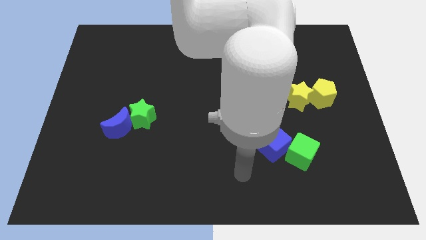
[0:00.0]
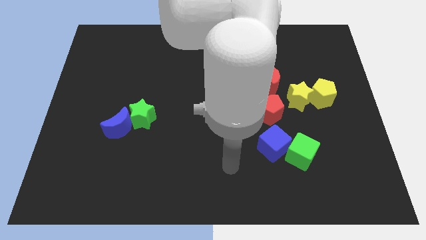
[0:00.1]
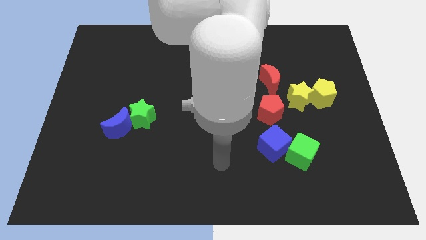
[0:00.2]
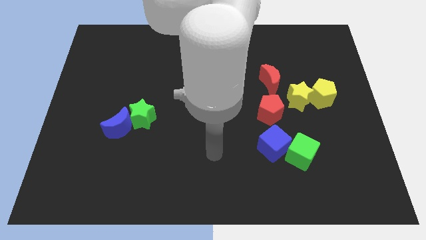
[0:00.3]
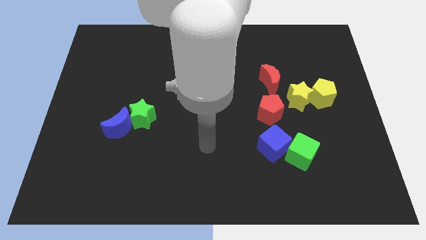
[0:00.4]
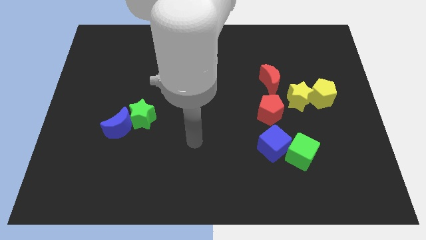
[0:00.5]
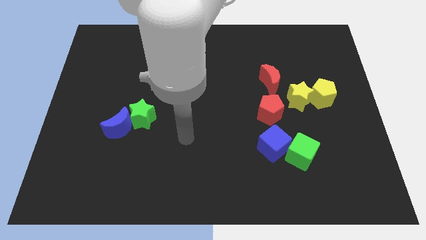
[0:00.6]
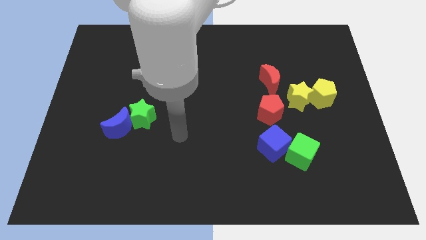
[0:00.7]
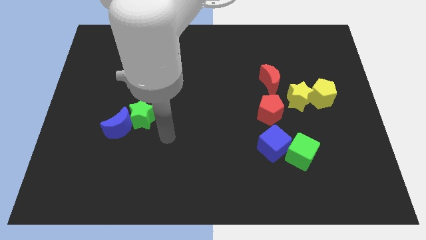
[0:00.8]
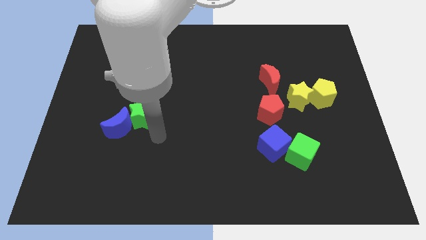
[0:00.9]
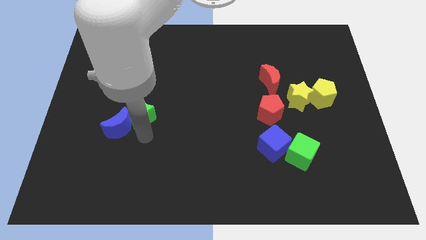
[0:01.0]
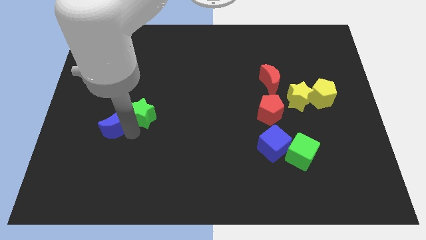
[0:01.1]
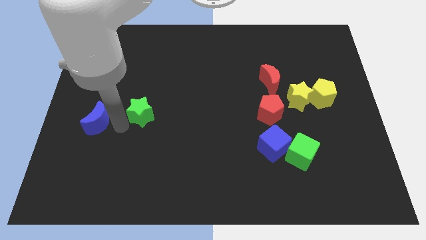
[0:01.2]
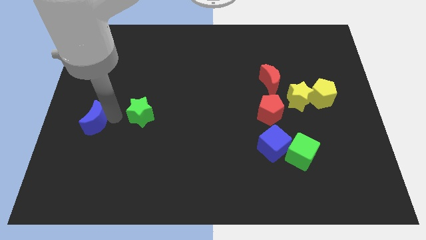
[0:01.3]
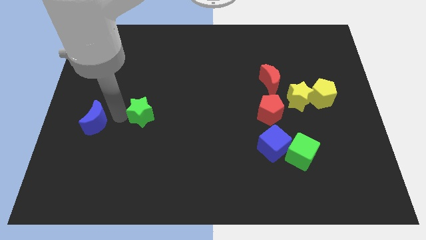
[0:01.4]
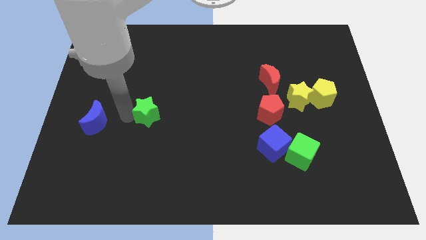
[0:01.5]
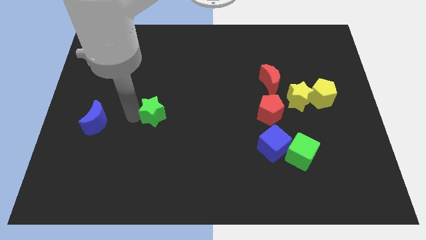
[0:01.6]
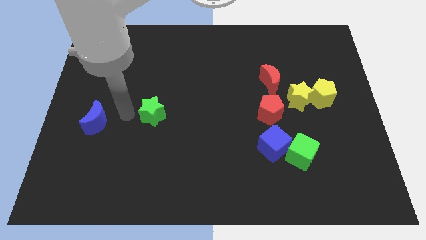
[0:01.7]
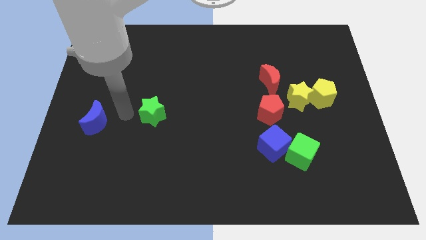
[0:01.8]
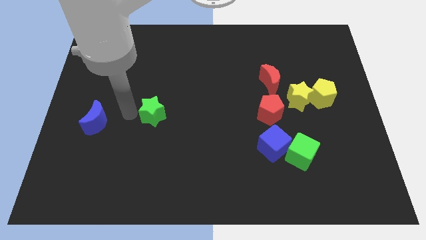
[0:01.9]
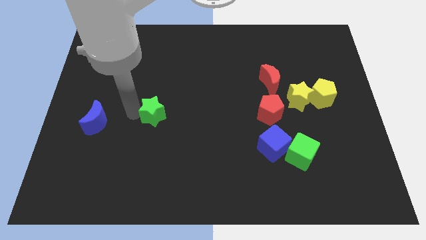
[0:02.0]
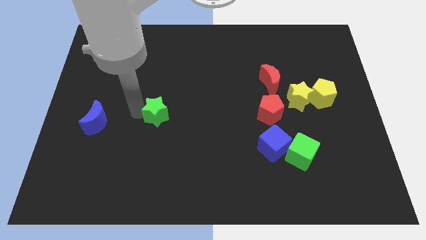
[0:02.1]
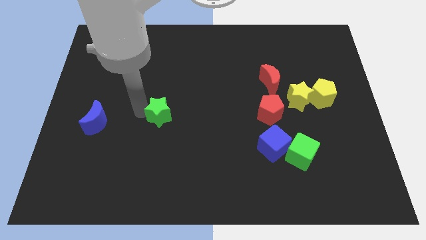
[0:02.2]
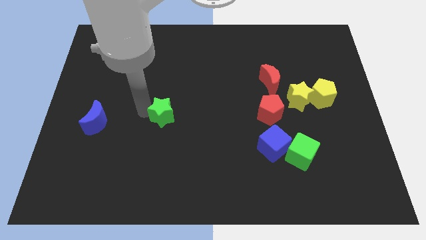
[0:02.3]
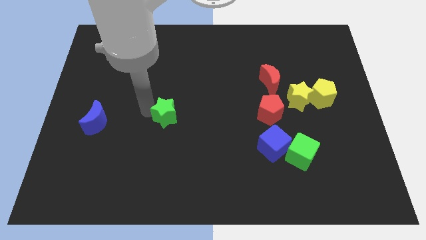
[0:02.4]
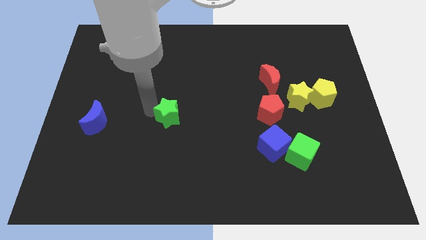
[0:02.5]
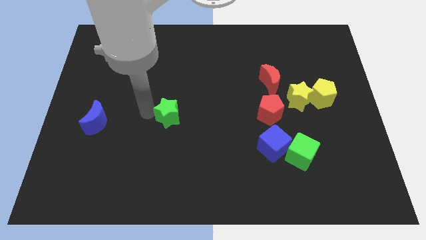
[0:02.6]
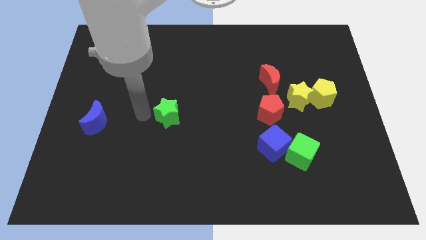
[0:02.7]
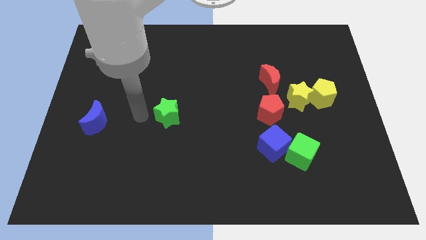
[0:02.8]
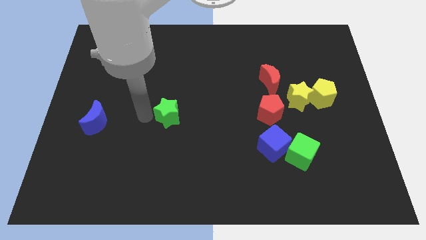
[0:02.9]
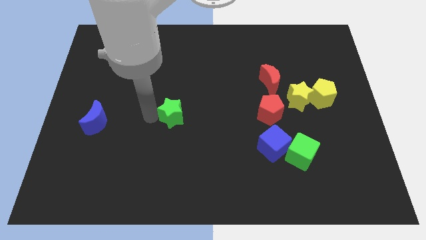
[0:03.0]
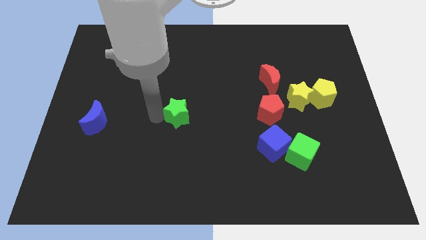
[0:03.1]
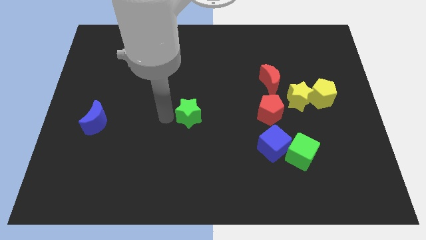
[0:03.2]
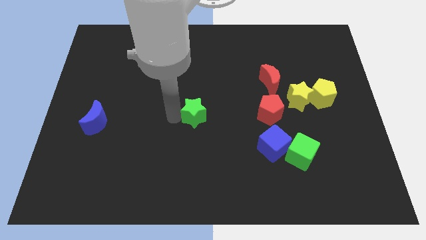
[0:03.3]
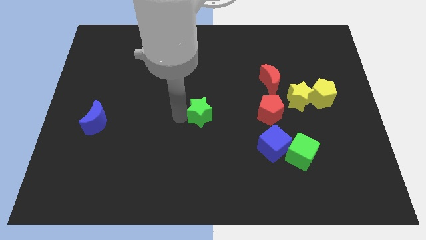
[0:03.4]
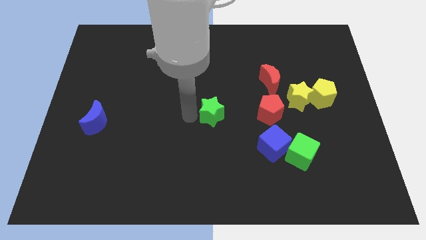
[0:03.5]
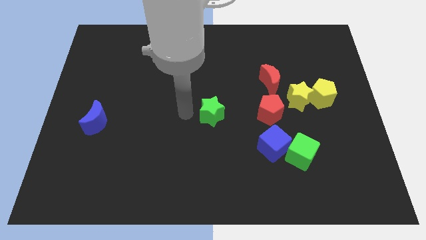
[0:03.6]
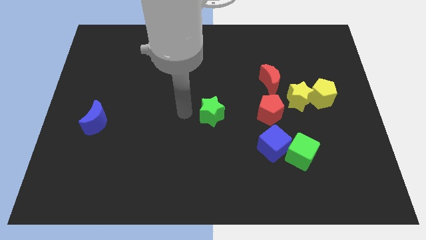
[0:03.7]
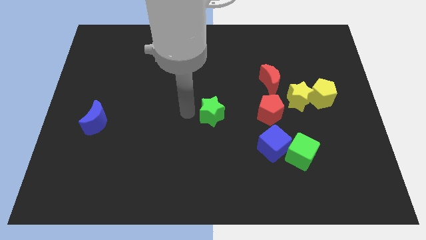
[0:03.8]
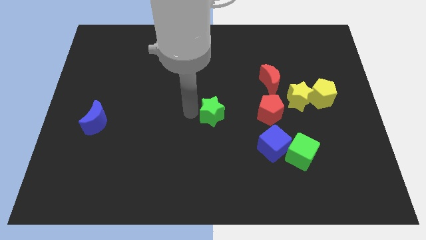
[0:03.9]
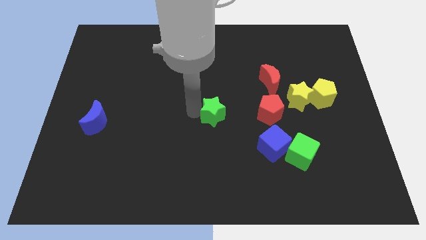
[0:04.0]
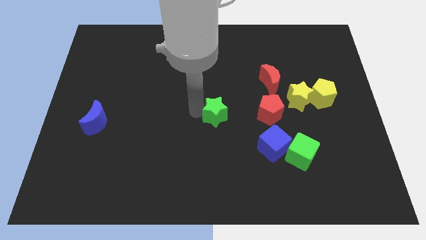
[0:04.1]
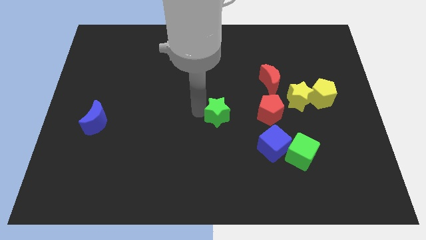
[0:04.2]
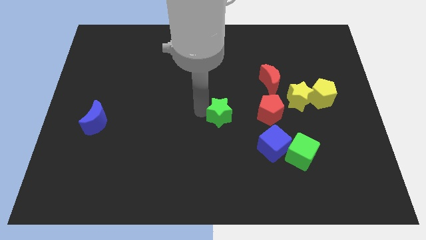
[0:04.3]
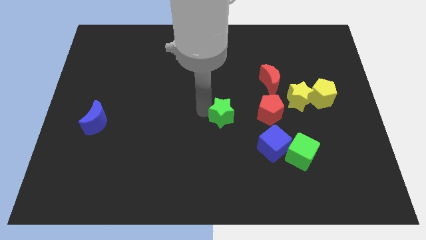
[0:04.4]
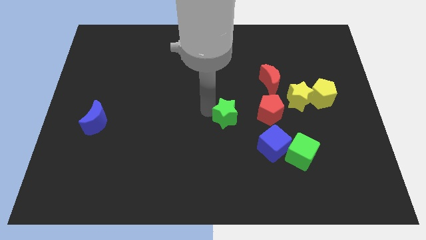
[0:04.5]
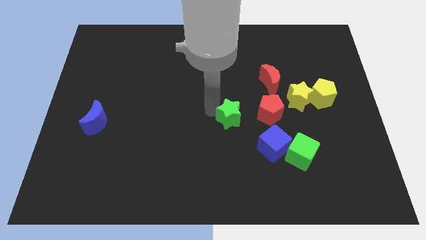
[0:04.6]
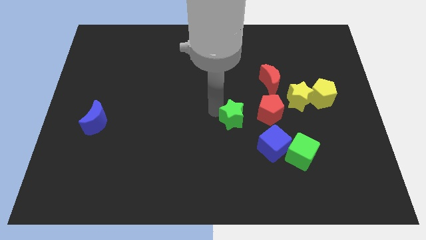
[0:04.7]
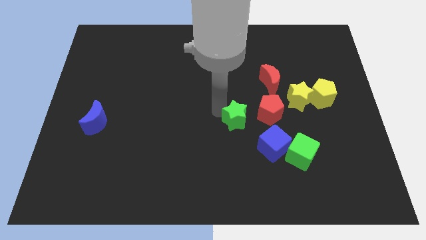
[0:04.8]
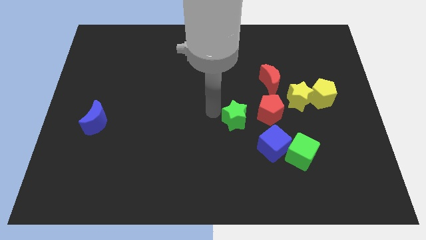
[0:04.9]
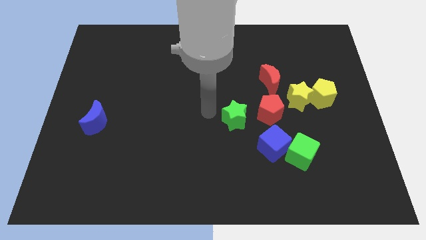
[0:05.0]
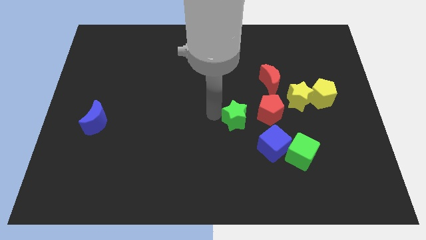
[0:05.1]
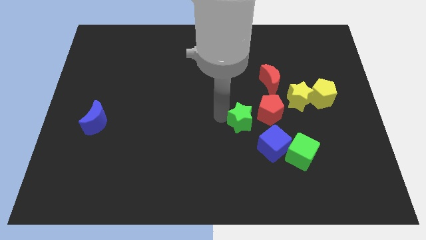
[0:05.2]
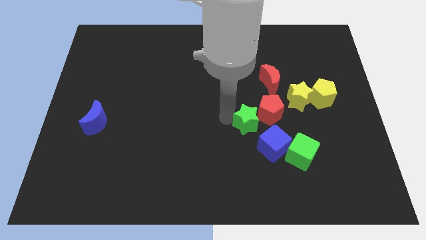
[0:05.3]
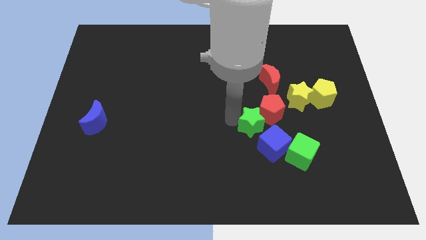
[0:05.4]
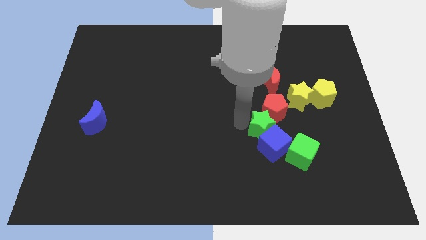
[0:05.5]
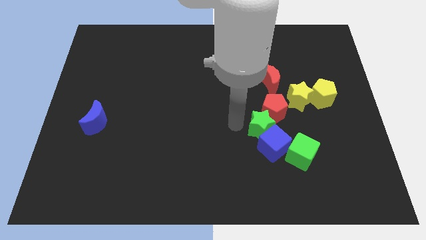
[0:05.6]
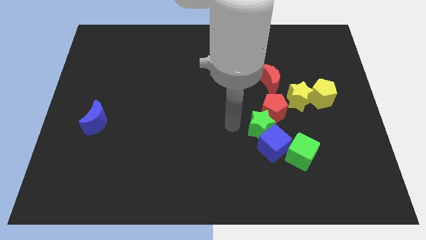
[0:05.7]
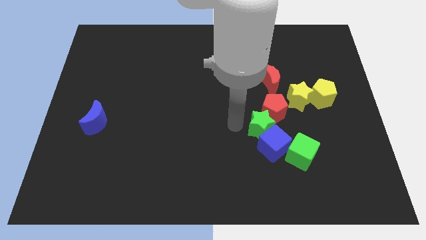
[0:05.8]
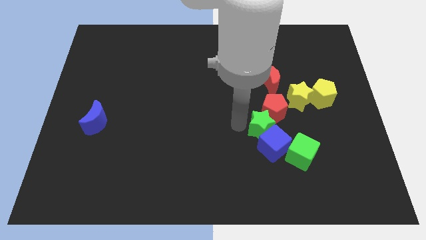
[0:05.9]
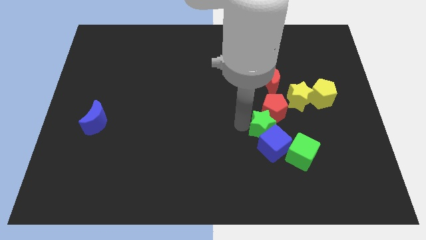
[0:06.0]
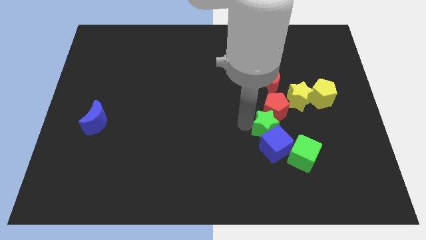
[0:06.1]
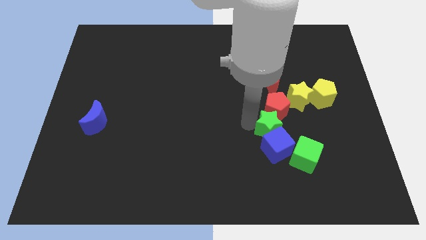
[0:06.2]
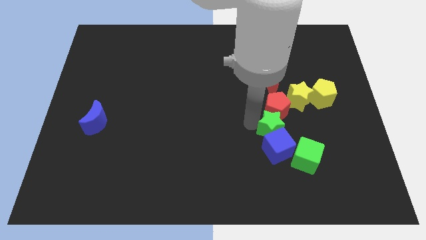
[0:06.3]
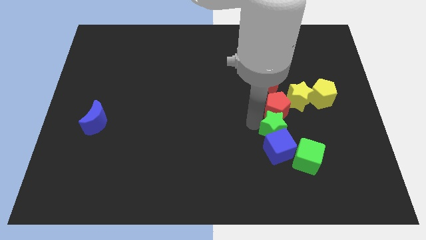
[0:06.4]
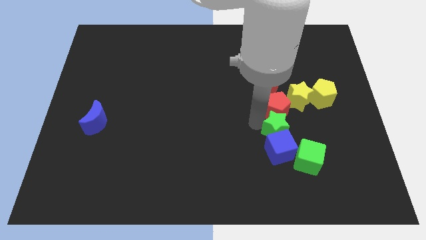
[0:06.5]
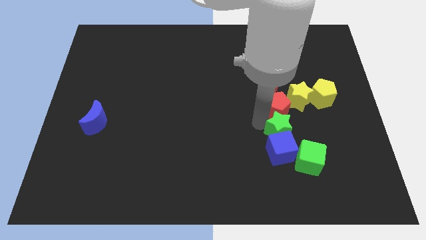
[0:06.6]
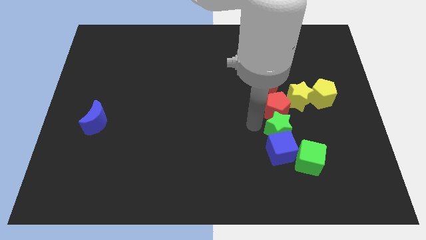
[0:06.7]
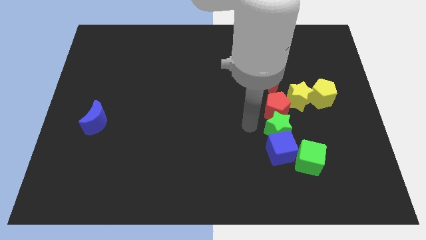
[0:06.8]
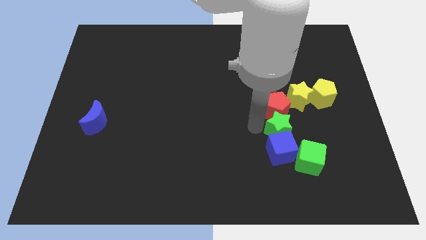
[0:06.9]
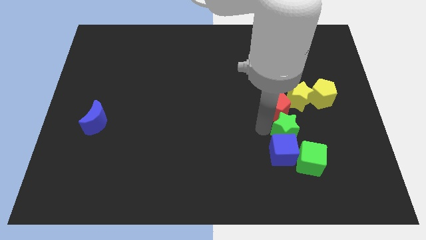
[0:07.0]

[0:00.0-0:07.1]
put the green star below the yellow star
